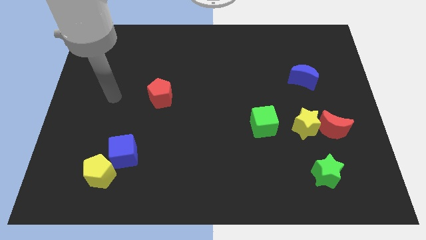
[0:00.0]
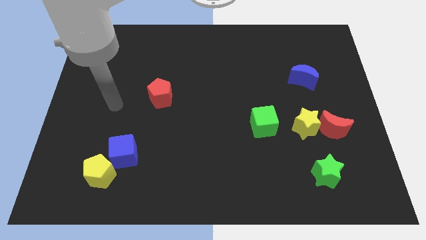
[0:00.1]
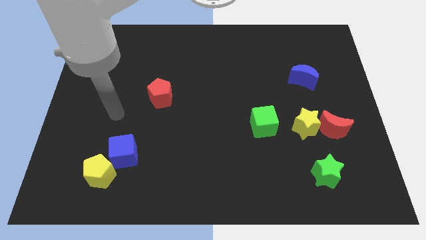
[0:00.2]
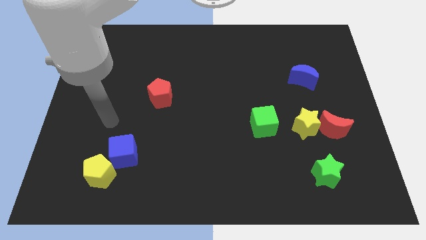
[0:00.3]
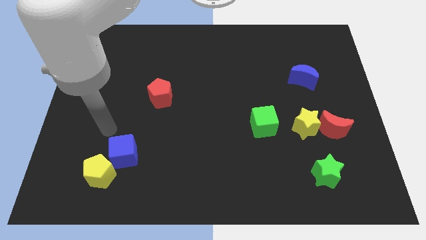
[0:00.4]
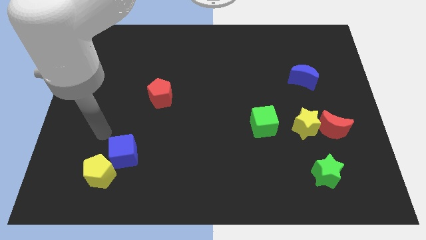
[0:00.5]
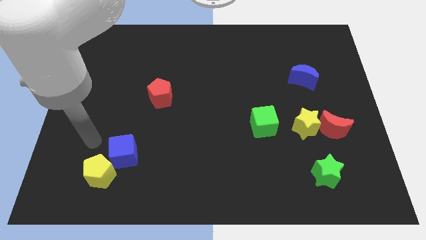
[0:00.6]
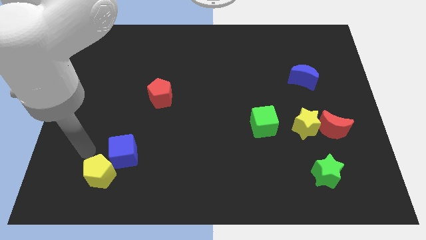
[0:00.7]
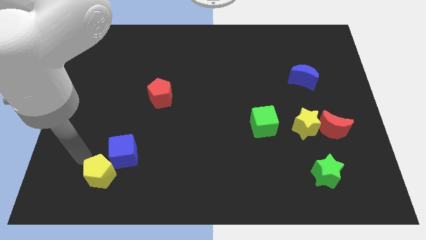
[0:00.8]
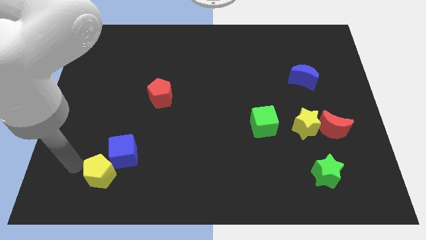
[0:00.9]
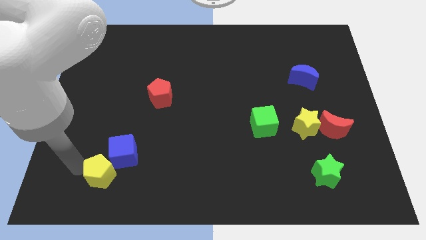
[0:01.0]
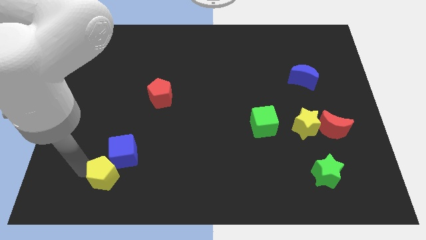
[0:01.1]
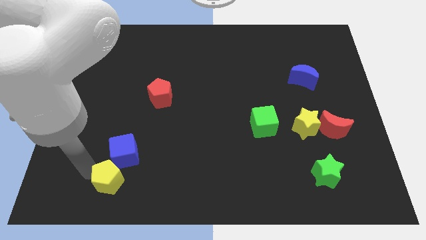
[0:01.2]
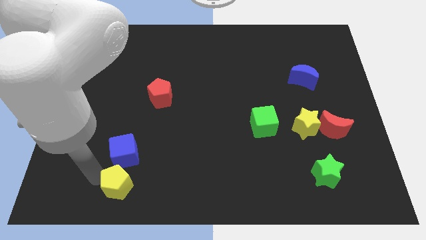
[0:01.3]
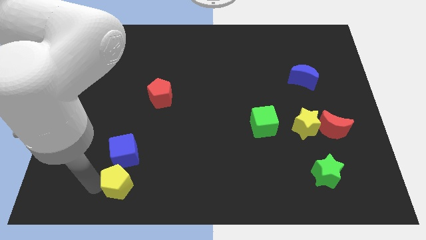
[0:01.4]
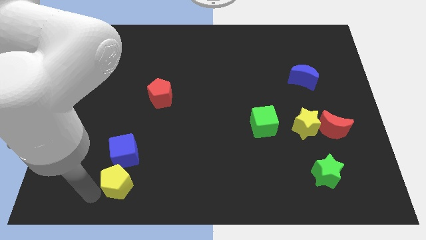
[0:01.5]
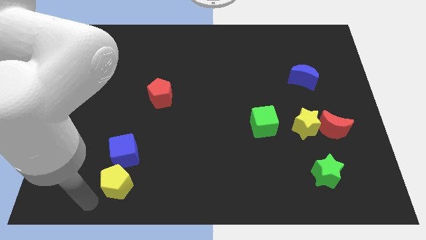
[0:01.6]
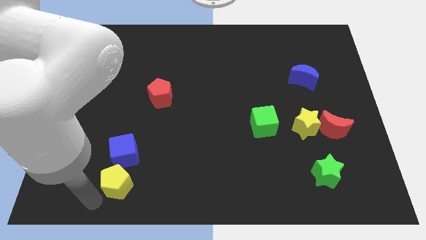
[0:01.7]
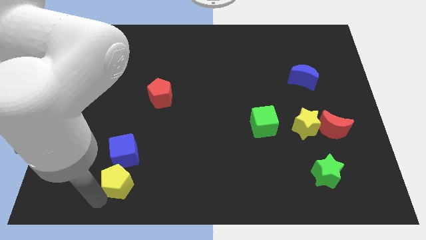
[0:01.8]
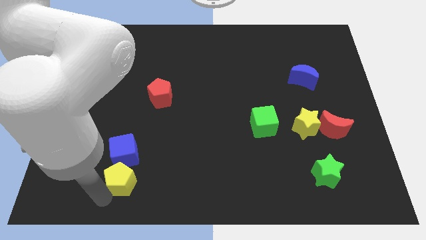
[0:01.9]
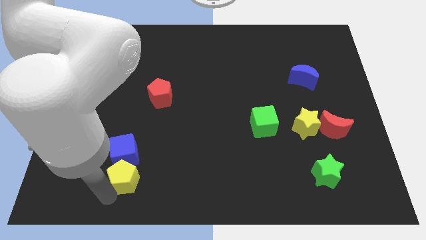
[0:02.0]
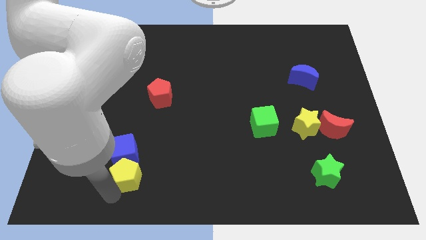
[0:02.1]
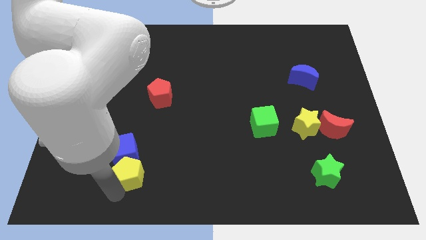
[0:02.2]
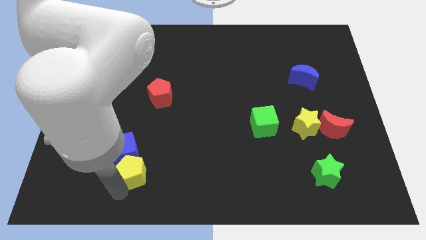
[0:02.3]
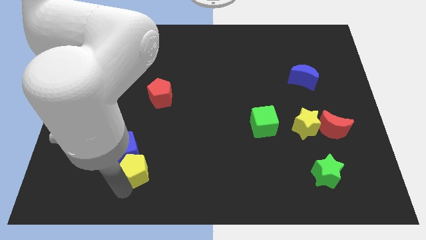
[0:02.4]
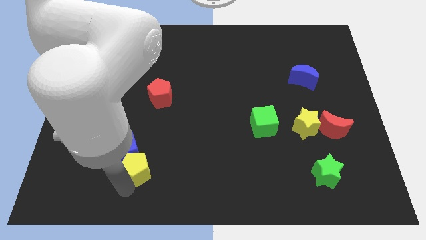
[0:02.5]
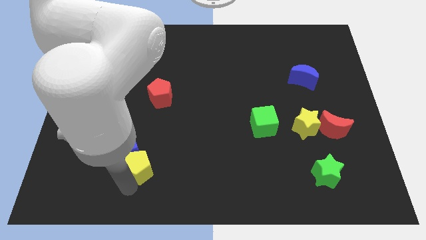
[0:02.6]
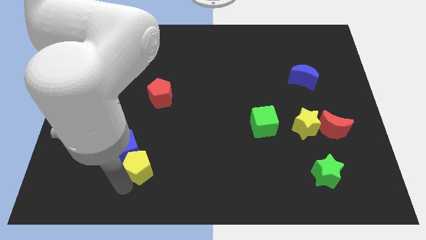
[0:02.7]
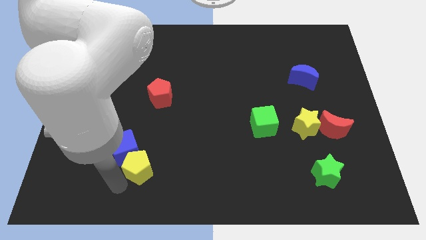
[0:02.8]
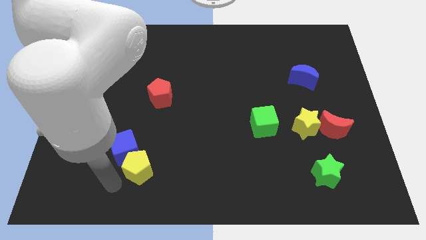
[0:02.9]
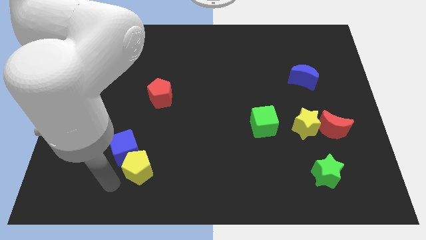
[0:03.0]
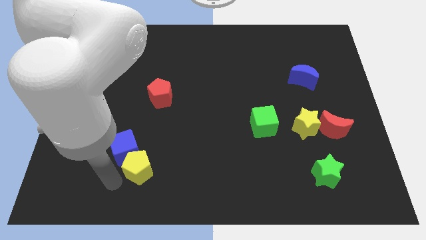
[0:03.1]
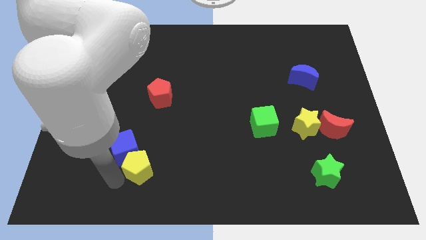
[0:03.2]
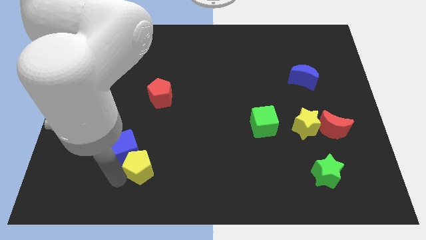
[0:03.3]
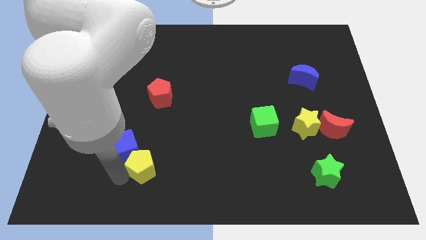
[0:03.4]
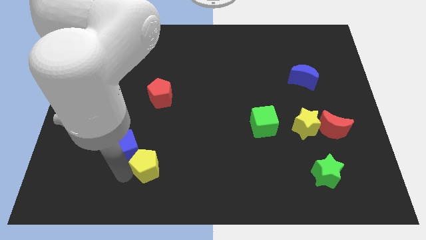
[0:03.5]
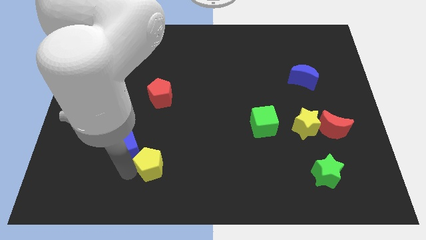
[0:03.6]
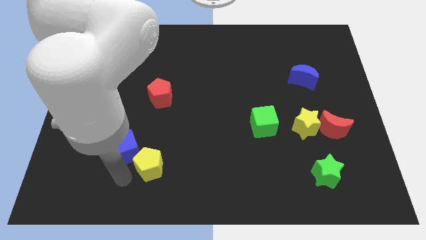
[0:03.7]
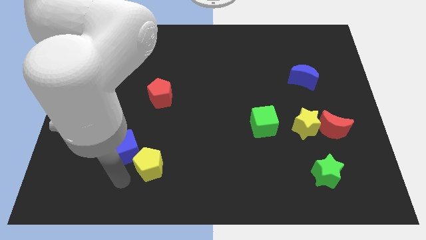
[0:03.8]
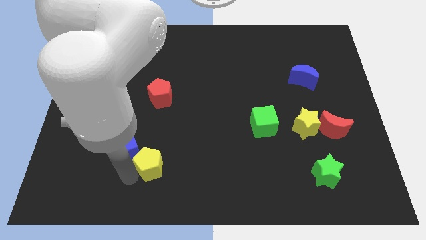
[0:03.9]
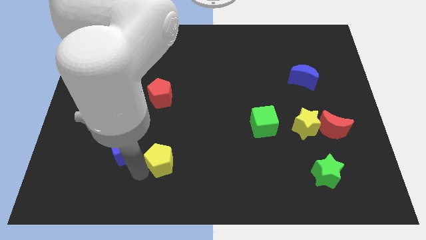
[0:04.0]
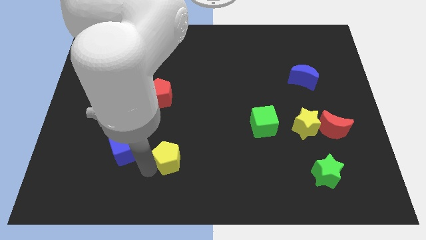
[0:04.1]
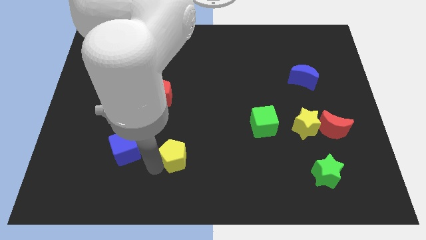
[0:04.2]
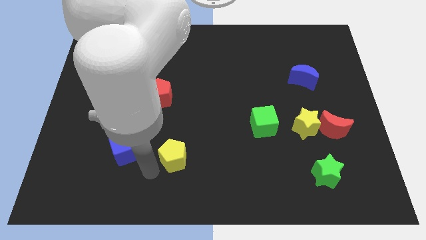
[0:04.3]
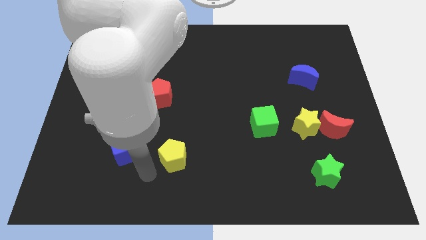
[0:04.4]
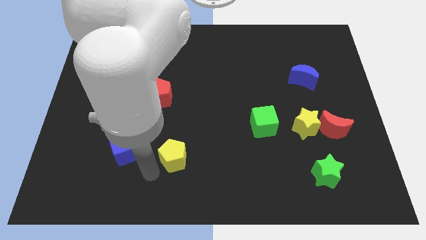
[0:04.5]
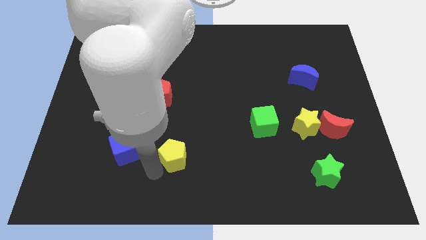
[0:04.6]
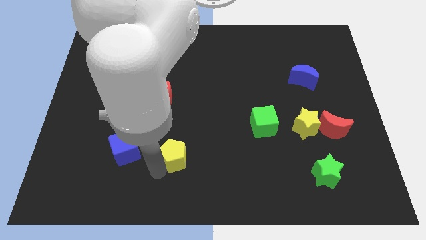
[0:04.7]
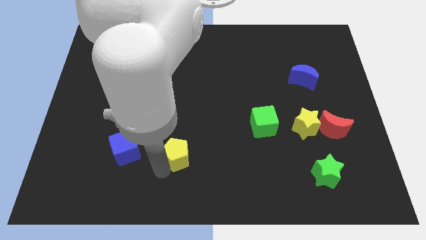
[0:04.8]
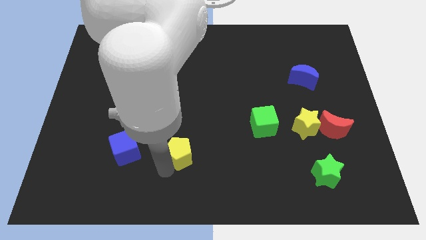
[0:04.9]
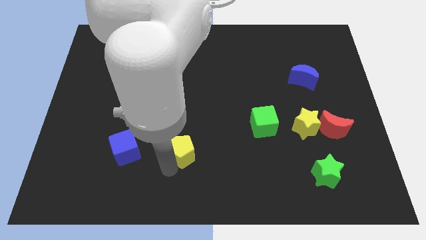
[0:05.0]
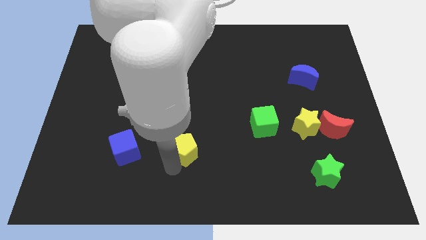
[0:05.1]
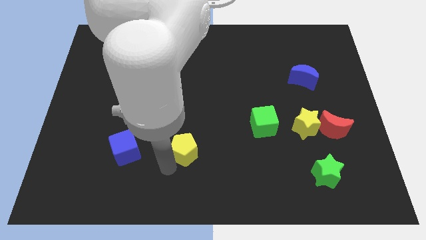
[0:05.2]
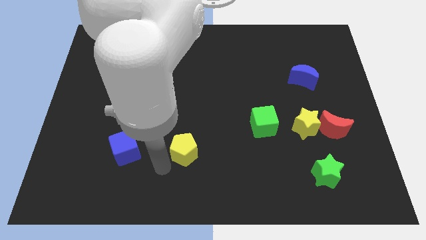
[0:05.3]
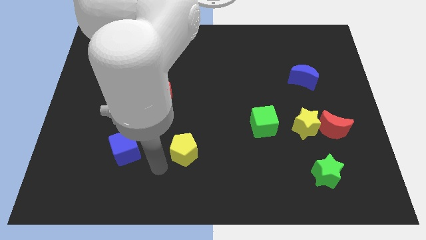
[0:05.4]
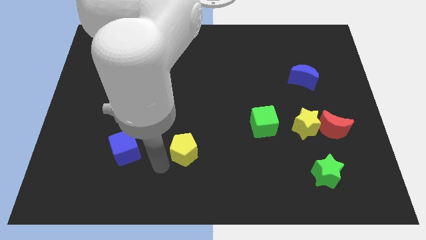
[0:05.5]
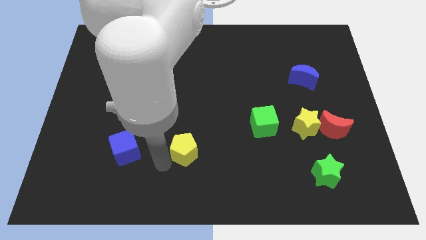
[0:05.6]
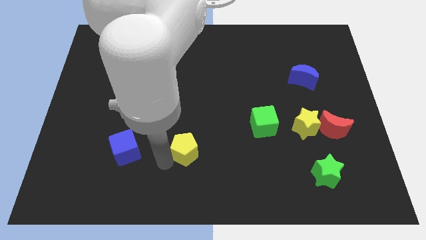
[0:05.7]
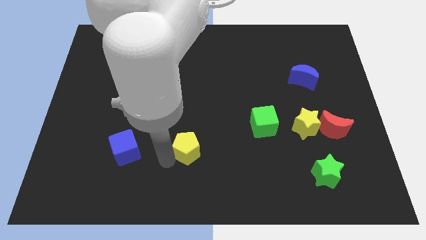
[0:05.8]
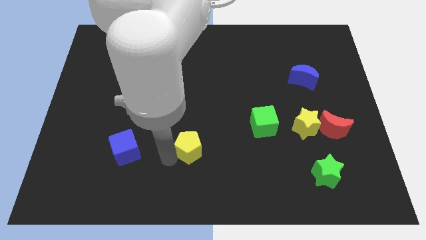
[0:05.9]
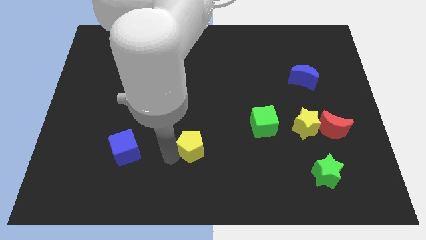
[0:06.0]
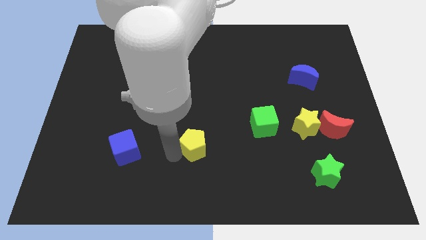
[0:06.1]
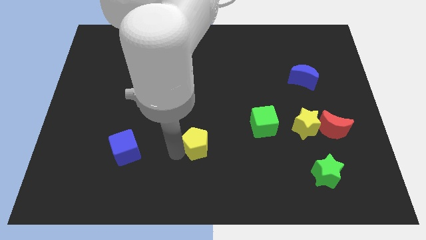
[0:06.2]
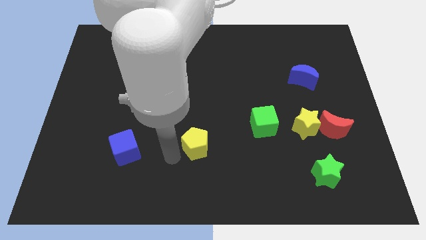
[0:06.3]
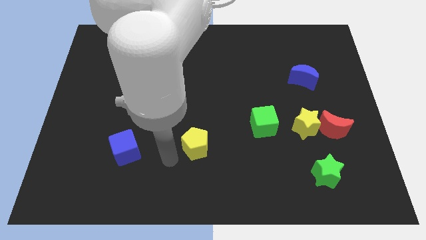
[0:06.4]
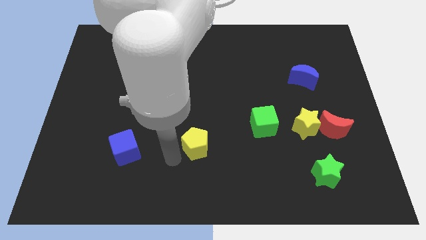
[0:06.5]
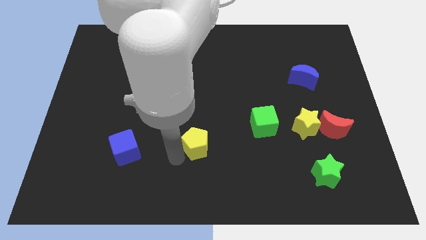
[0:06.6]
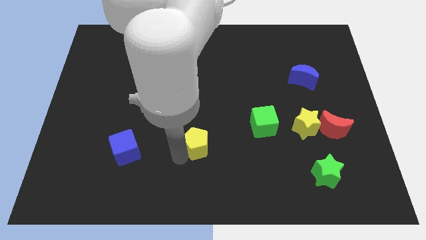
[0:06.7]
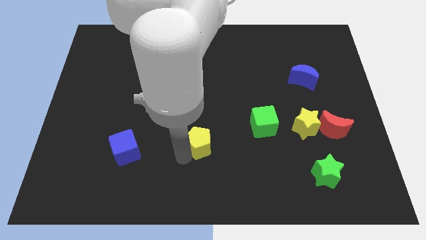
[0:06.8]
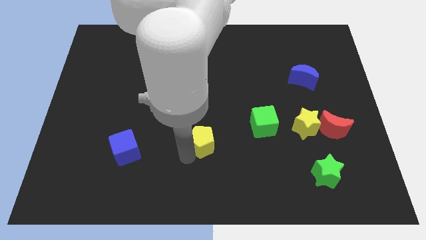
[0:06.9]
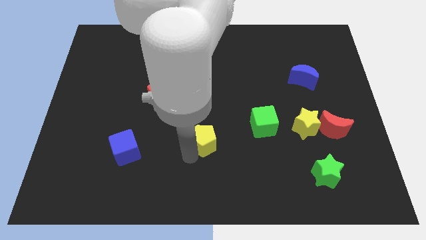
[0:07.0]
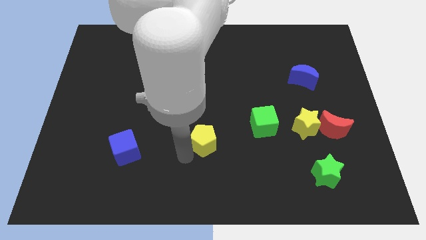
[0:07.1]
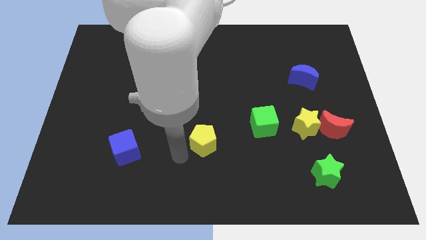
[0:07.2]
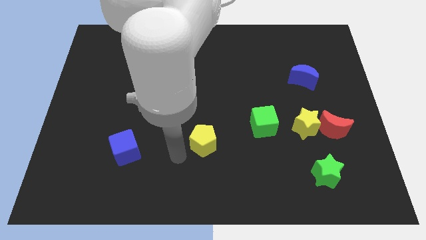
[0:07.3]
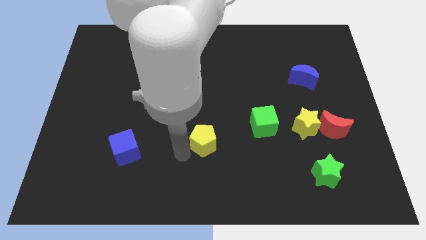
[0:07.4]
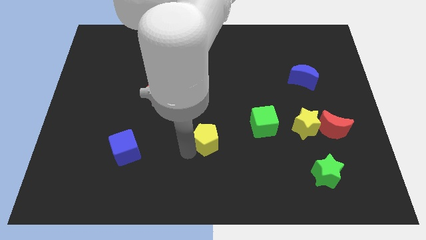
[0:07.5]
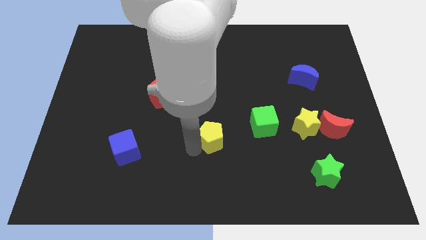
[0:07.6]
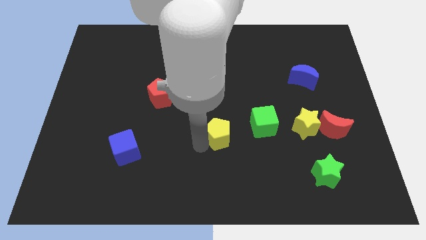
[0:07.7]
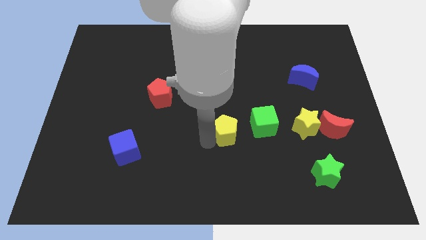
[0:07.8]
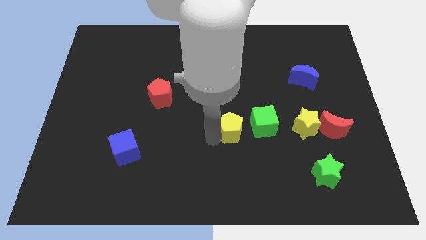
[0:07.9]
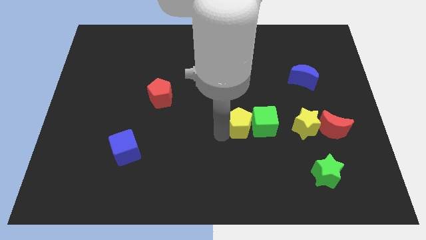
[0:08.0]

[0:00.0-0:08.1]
push the yellow pentagon next to the green cube
